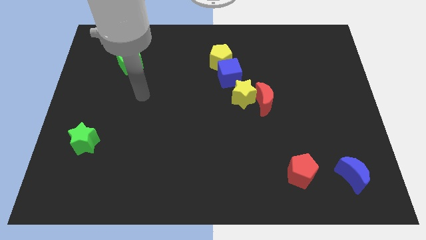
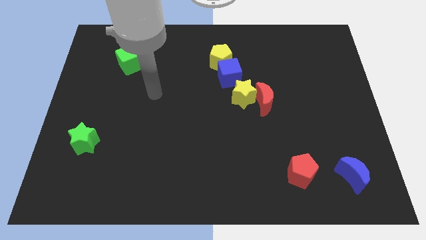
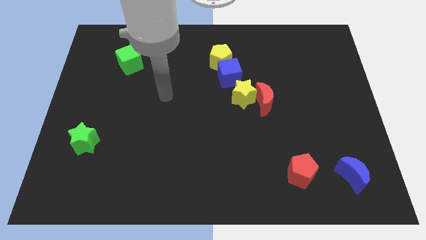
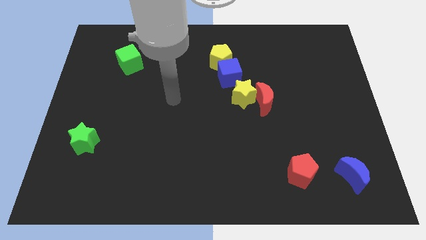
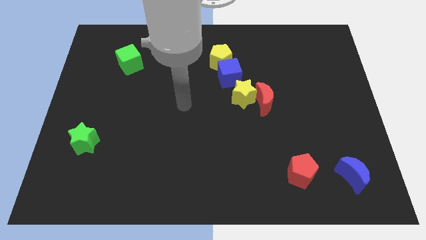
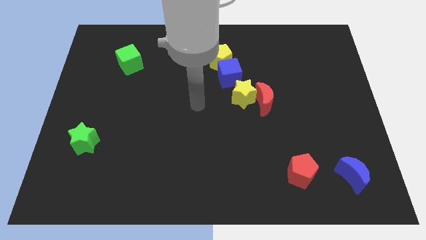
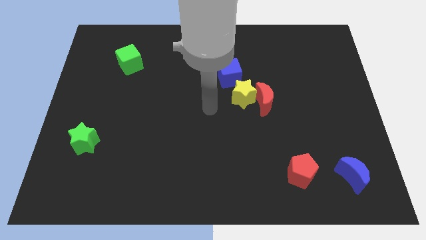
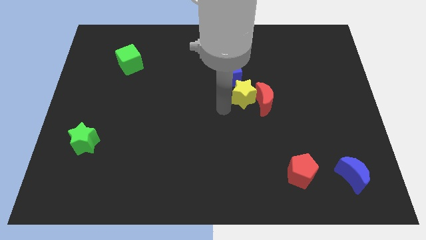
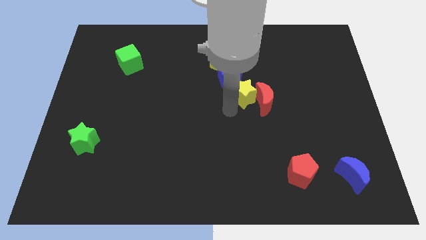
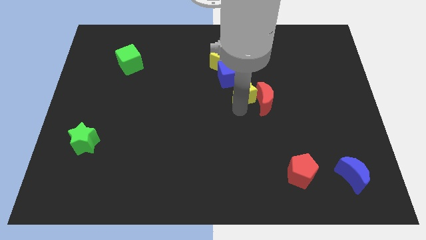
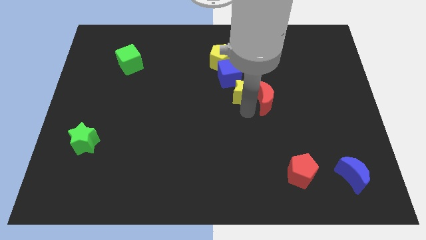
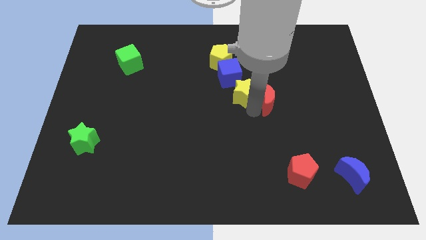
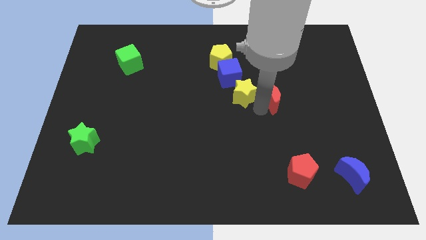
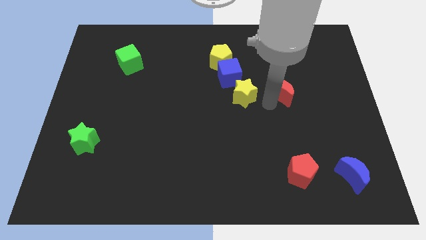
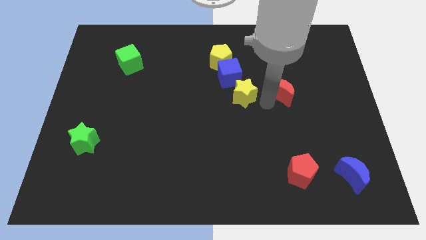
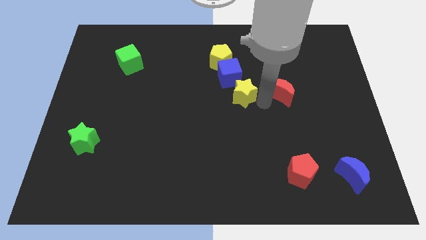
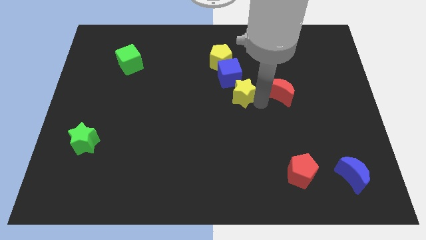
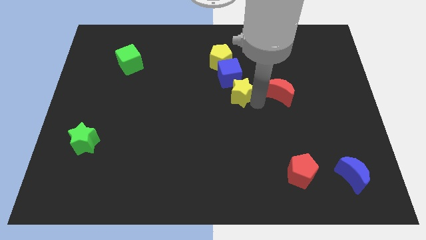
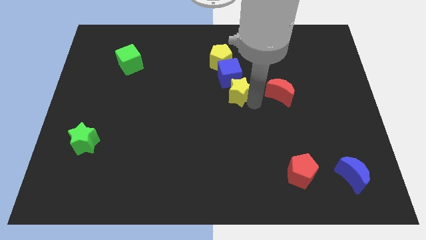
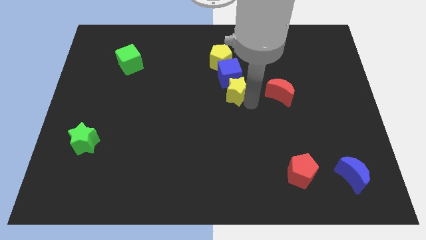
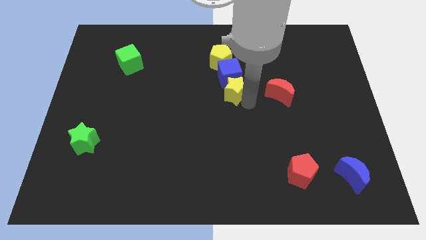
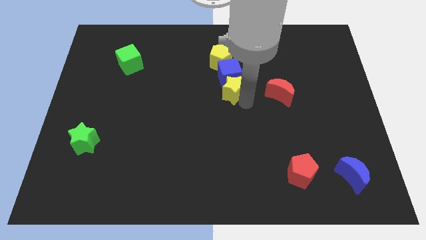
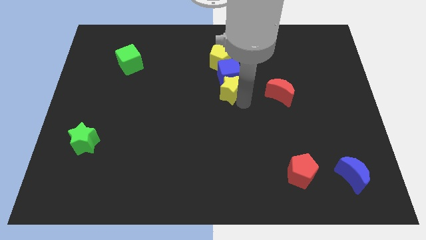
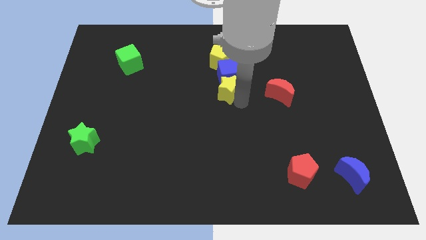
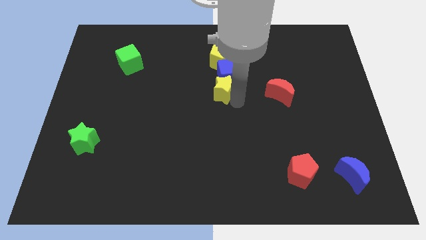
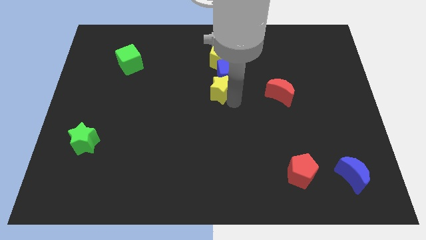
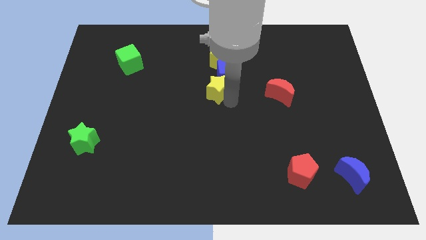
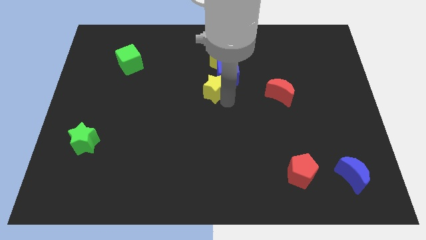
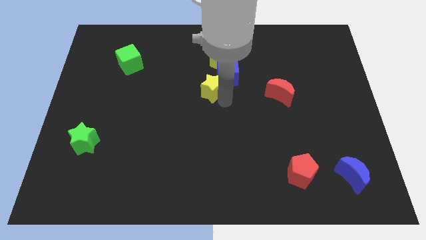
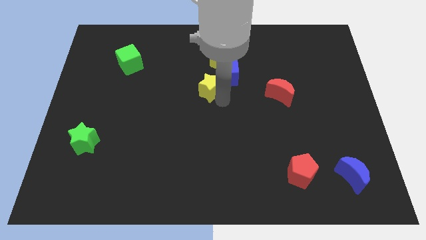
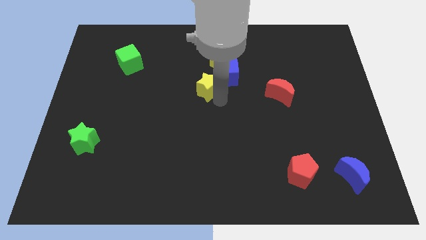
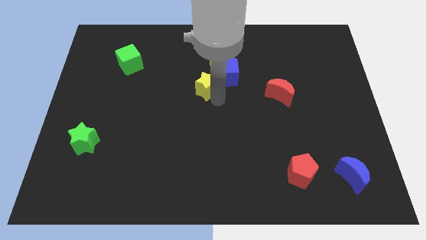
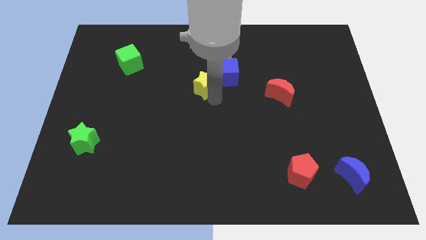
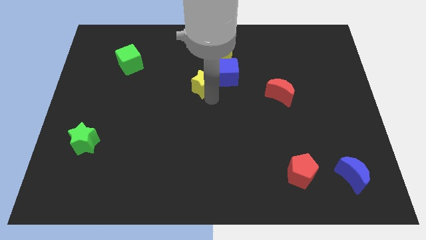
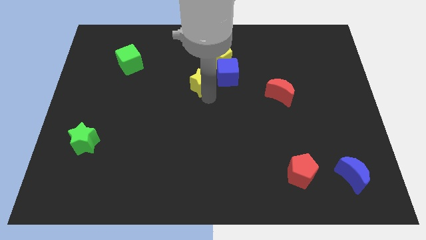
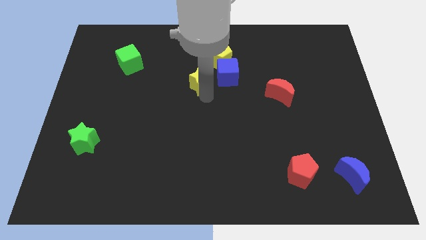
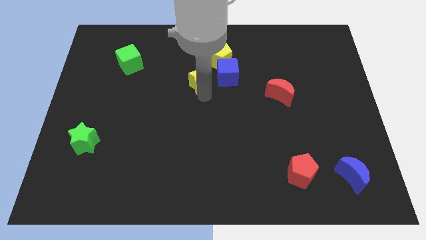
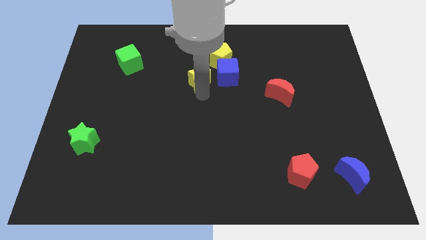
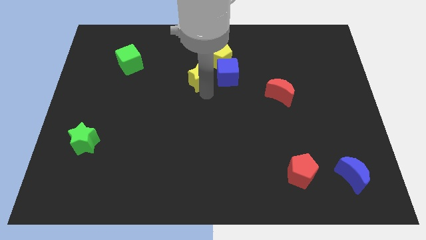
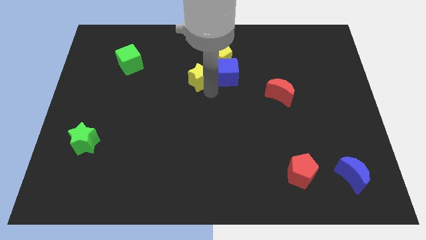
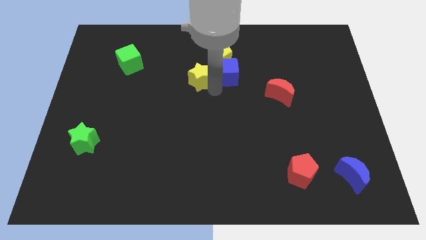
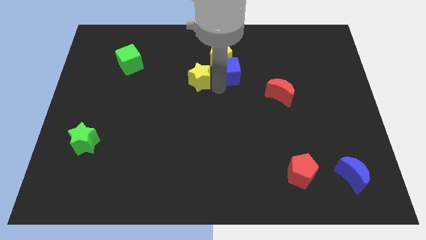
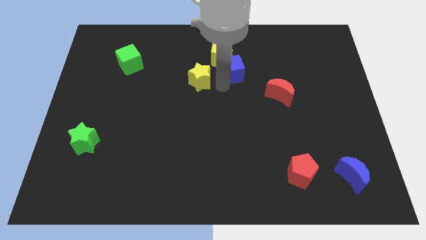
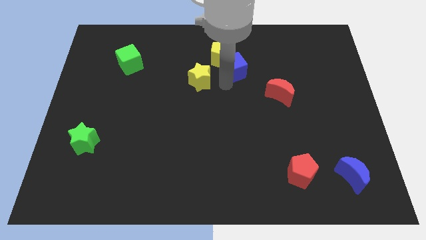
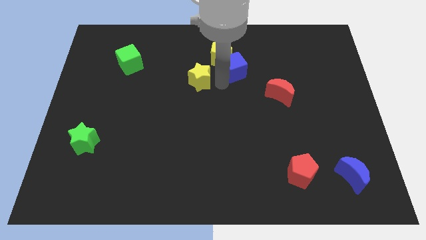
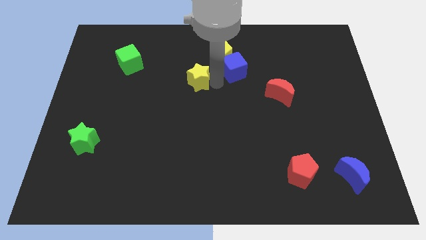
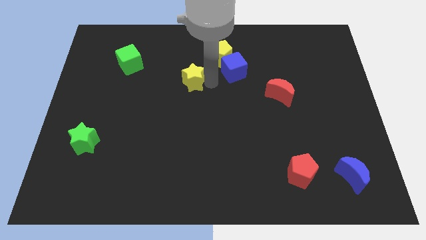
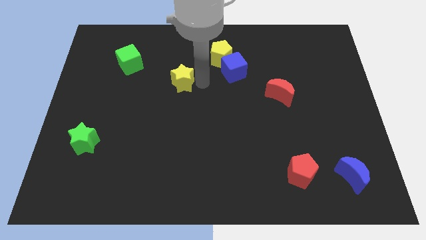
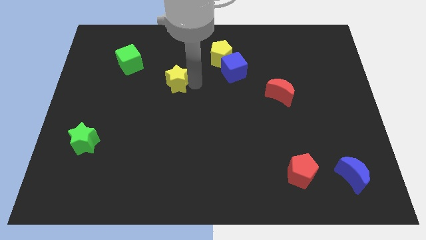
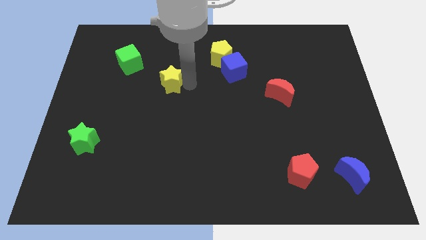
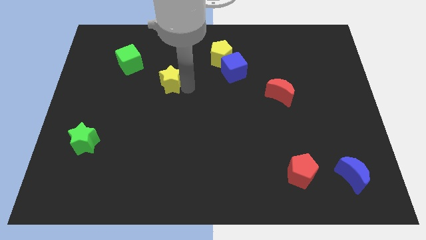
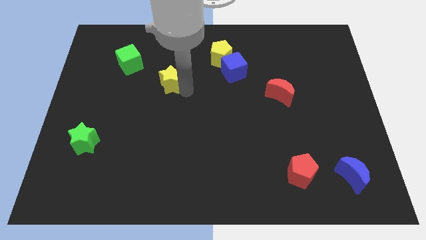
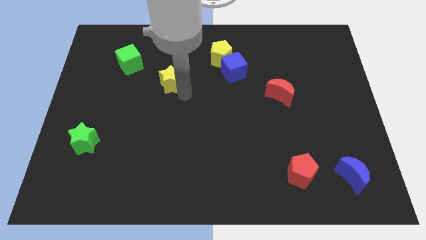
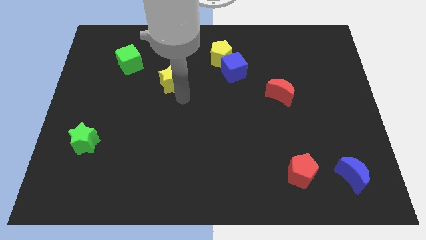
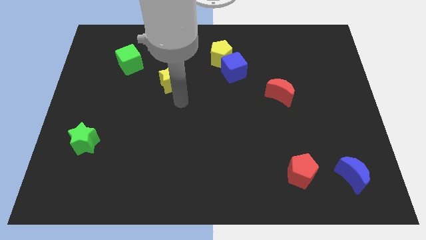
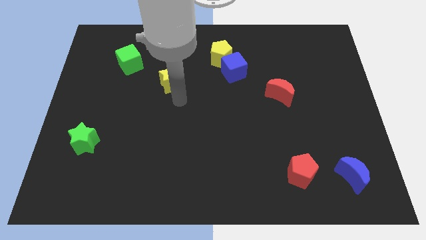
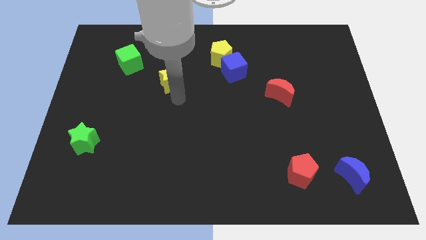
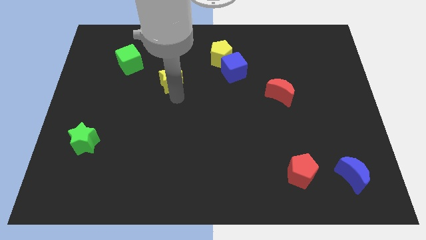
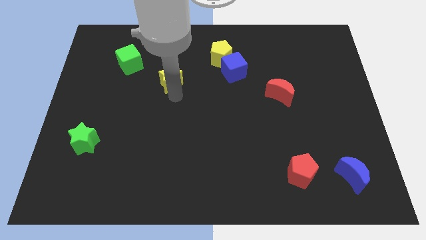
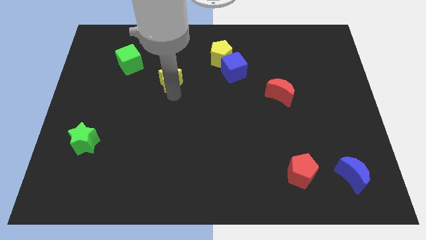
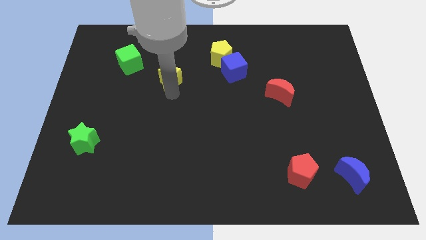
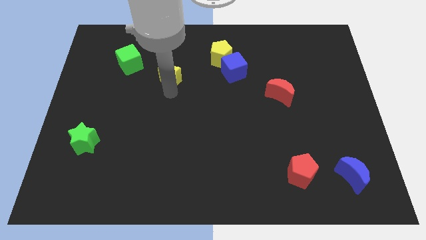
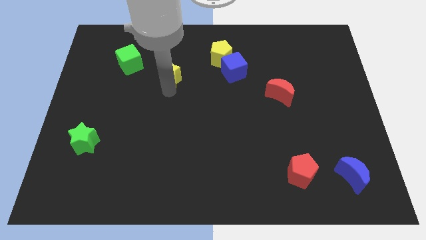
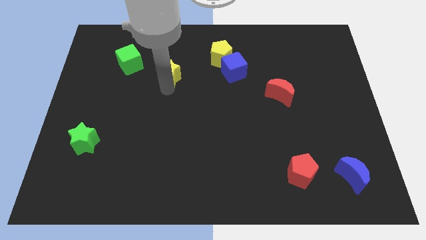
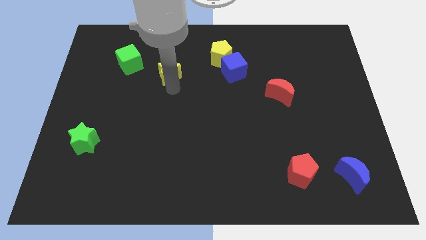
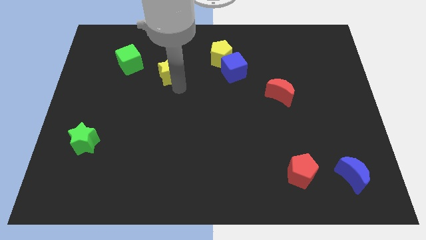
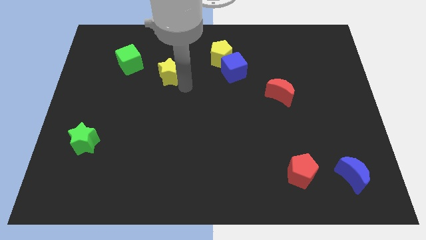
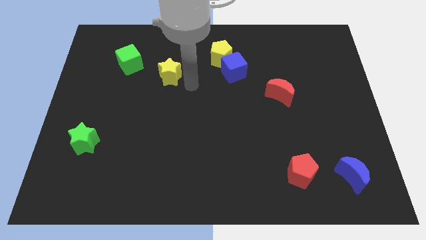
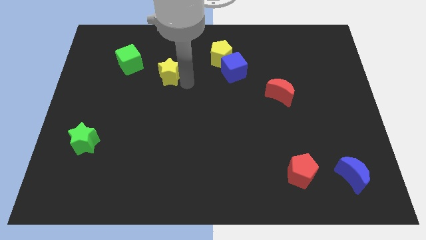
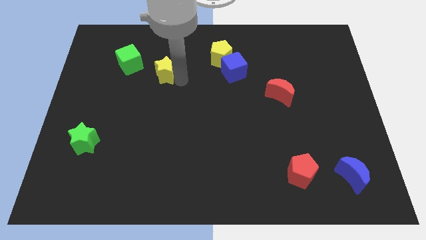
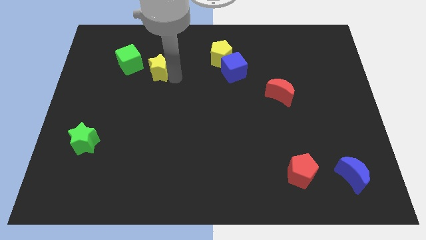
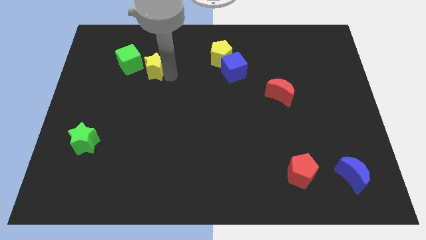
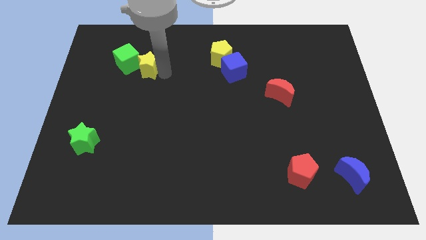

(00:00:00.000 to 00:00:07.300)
push the yellow star to the green cube

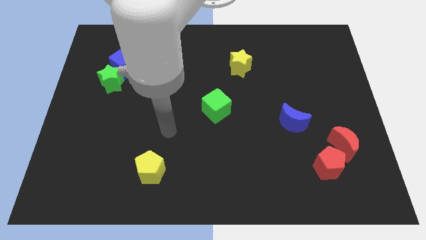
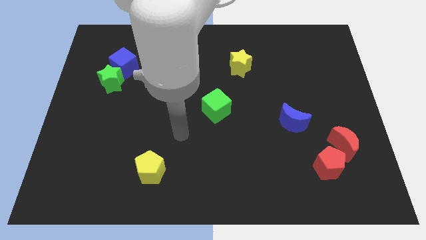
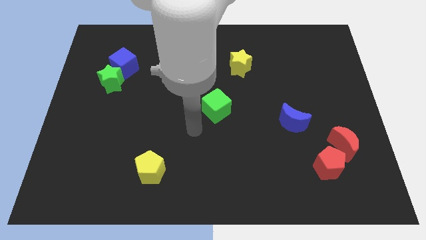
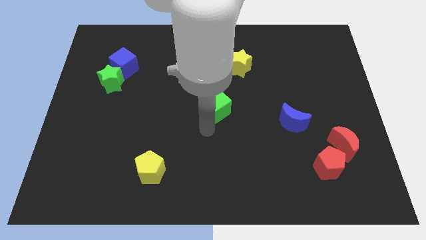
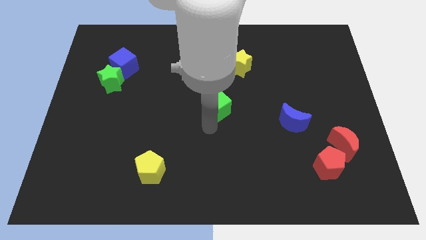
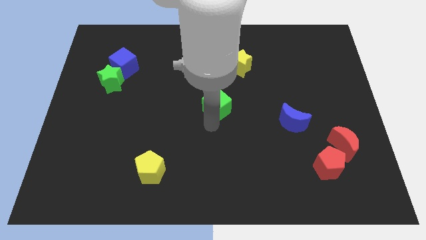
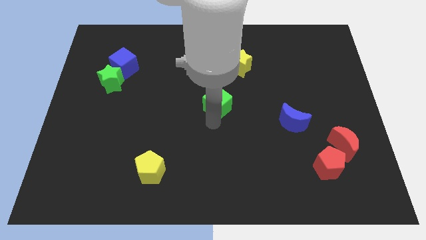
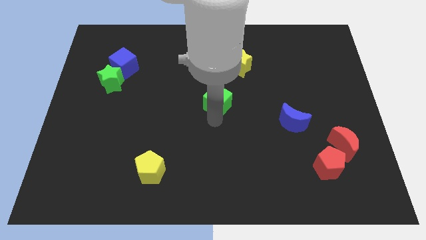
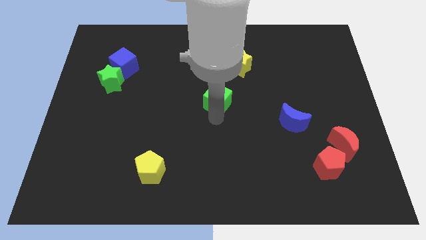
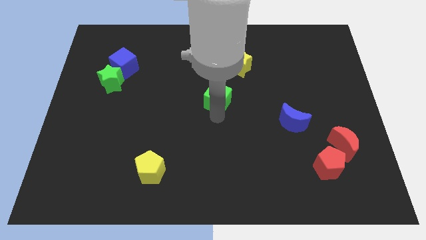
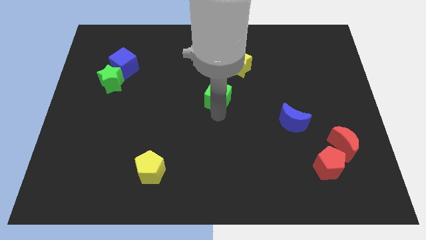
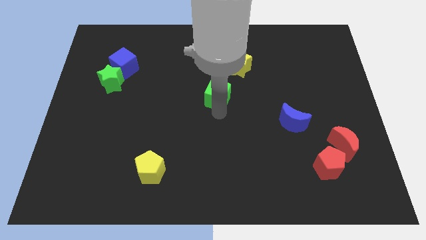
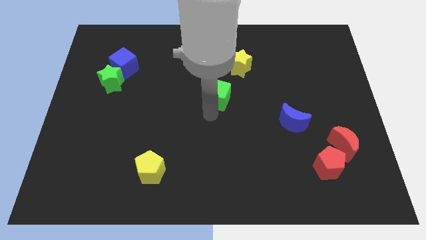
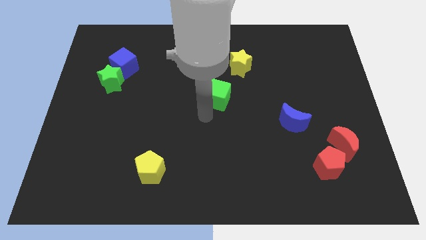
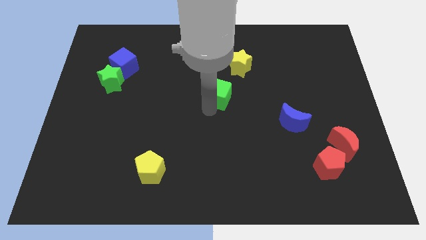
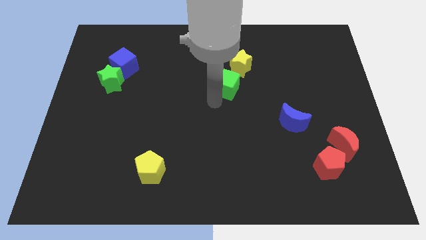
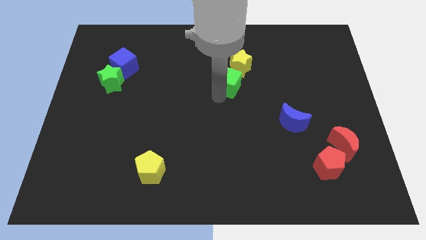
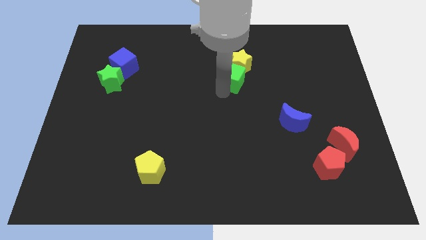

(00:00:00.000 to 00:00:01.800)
slide the green cube close to the yellow star
